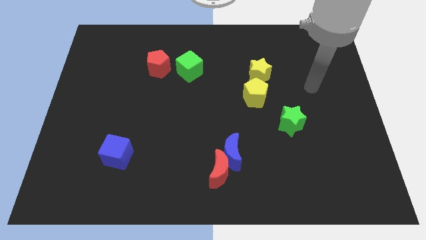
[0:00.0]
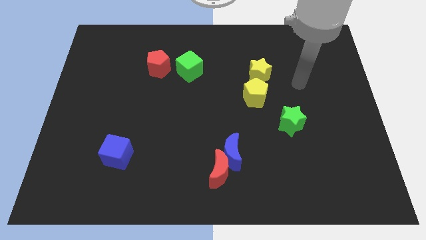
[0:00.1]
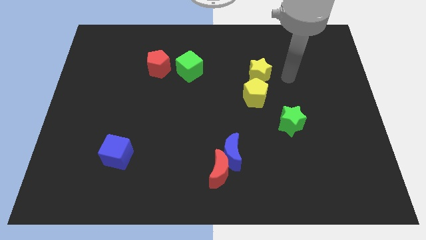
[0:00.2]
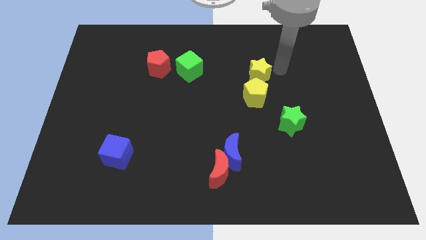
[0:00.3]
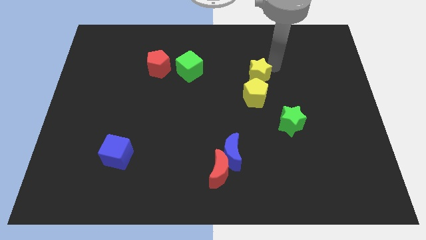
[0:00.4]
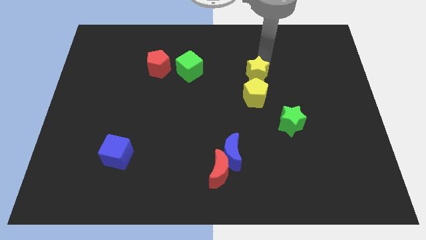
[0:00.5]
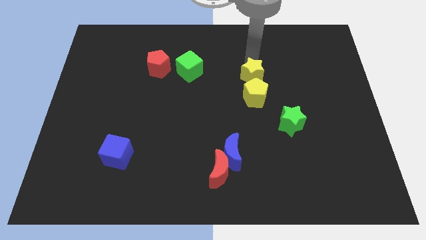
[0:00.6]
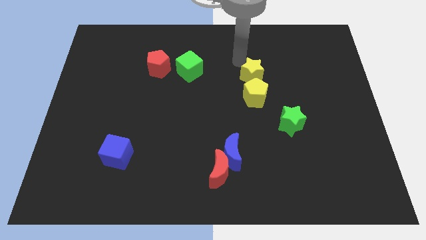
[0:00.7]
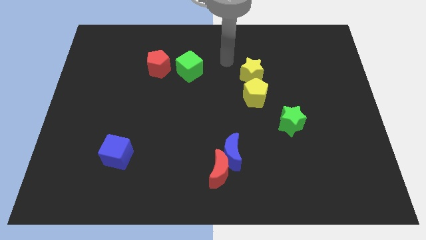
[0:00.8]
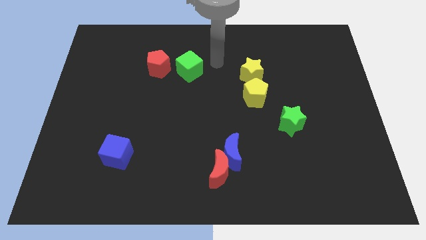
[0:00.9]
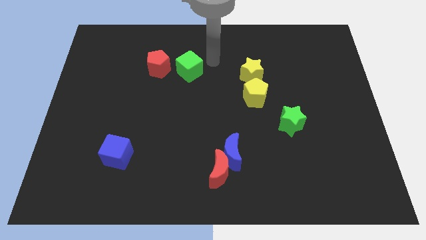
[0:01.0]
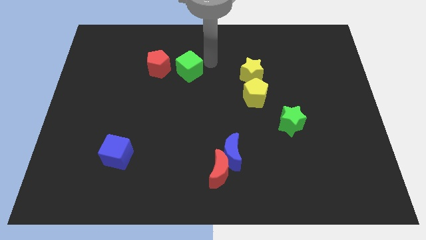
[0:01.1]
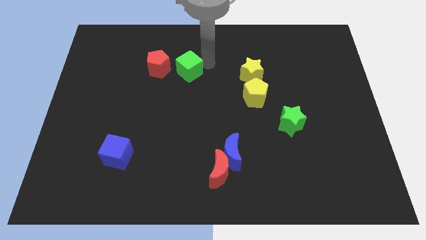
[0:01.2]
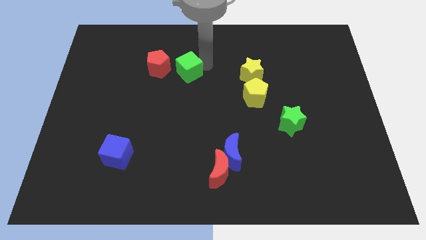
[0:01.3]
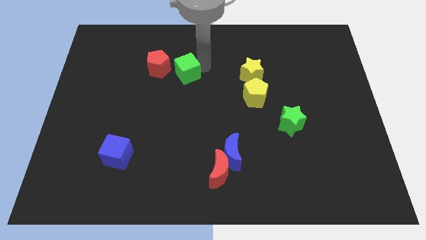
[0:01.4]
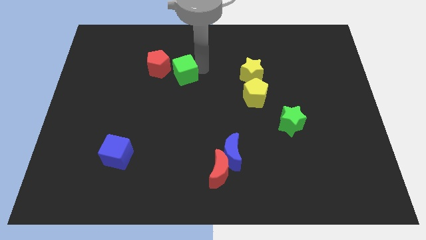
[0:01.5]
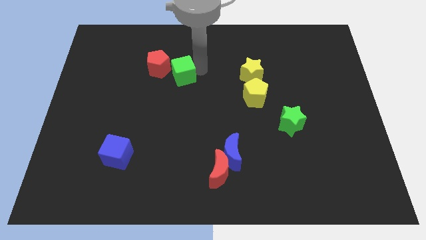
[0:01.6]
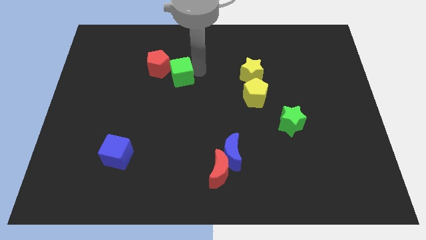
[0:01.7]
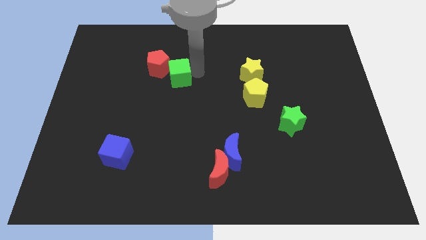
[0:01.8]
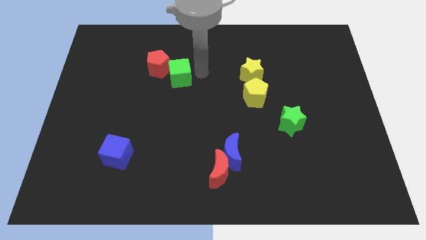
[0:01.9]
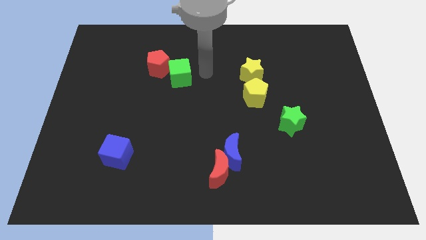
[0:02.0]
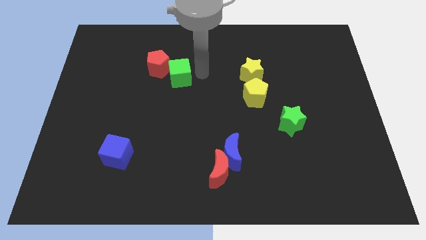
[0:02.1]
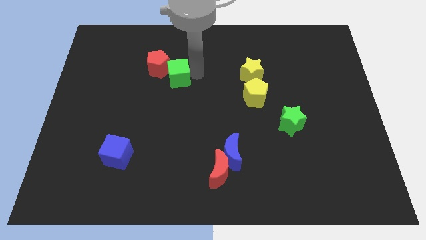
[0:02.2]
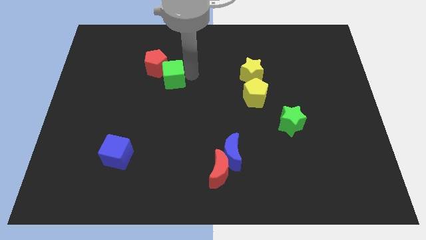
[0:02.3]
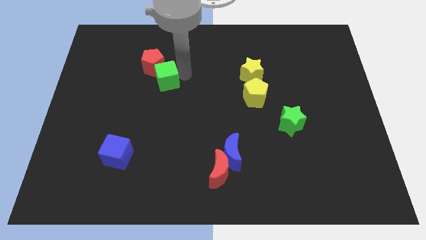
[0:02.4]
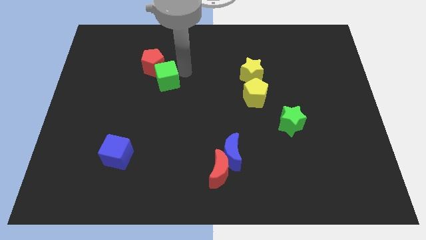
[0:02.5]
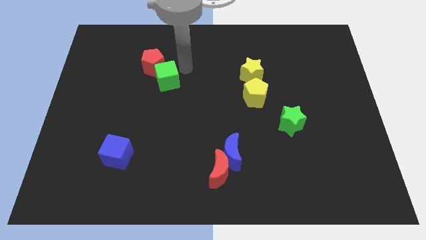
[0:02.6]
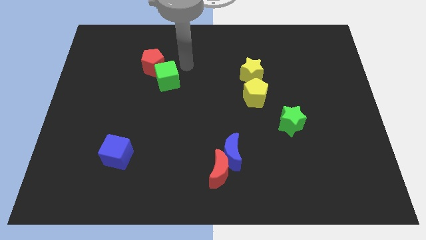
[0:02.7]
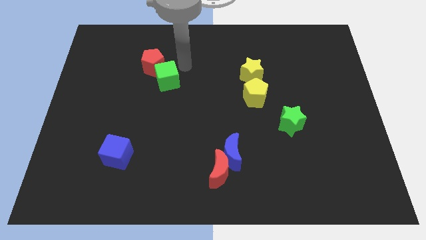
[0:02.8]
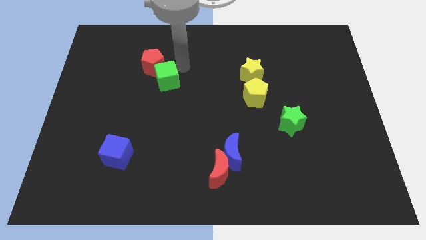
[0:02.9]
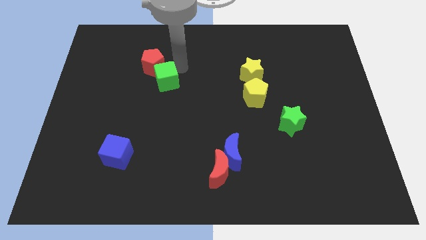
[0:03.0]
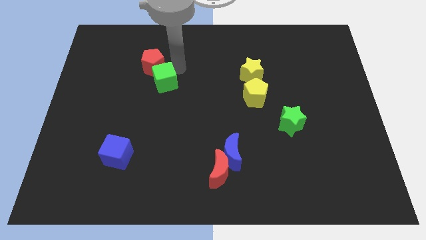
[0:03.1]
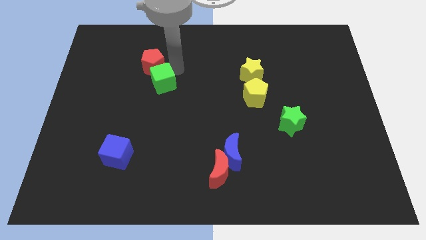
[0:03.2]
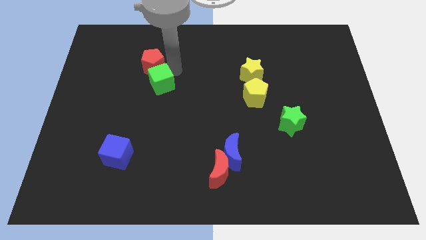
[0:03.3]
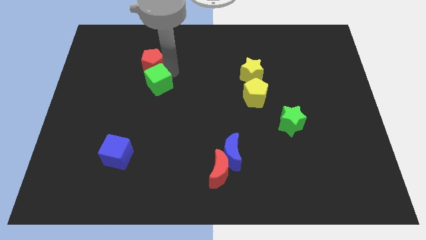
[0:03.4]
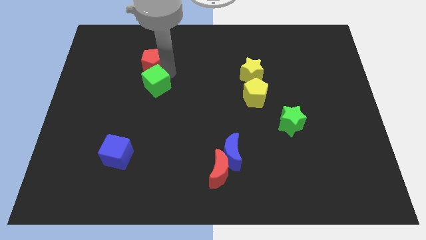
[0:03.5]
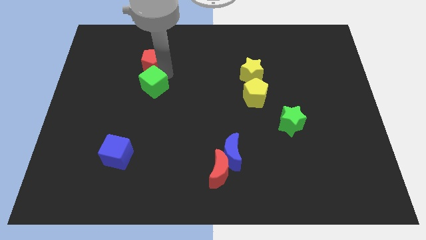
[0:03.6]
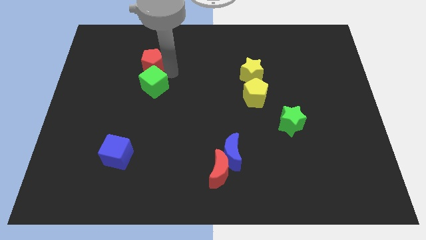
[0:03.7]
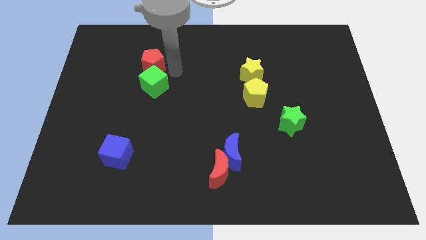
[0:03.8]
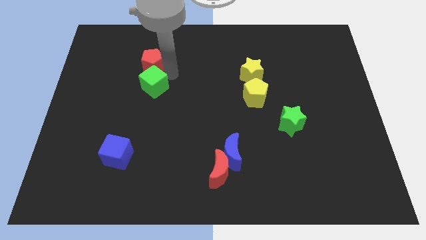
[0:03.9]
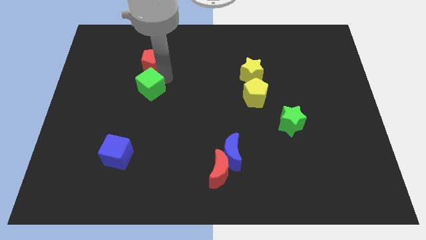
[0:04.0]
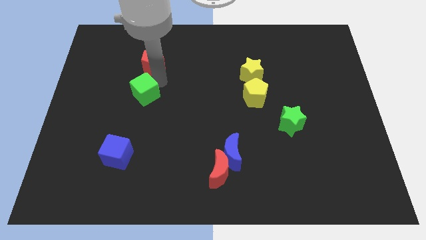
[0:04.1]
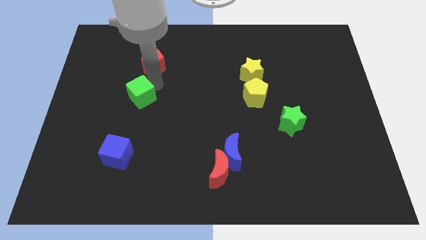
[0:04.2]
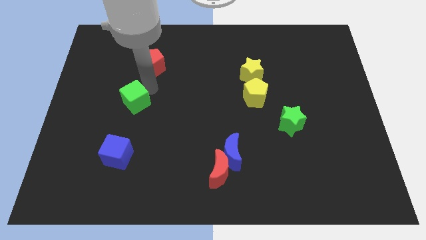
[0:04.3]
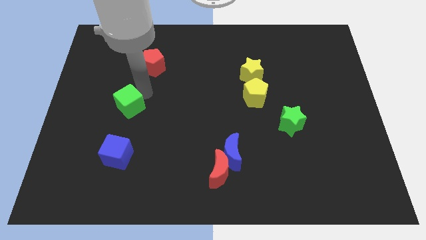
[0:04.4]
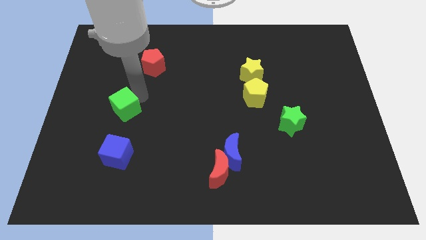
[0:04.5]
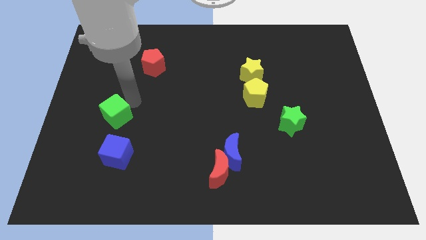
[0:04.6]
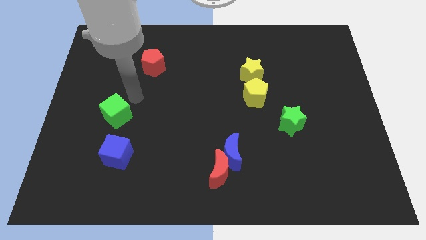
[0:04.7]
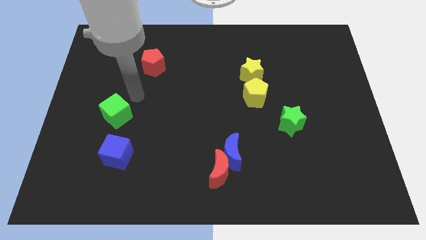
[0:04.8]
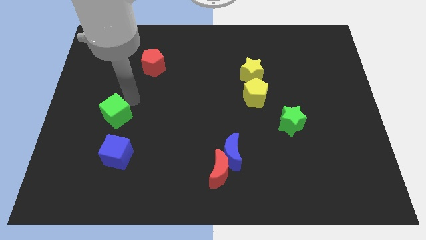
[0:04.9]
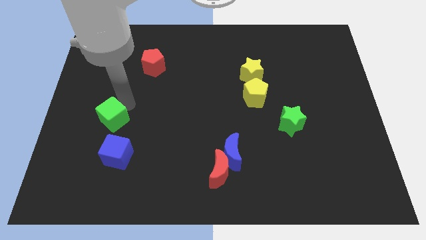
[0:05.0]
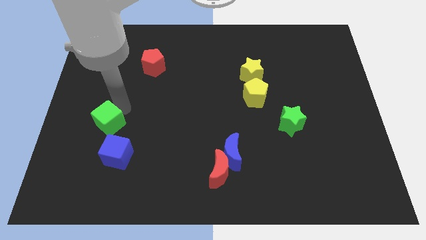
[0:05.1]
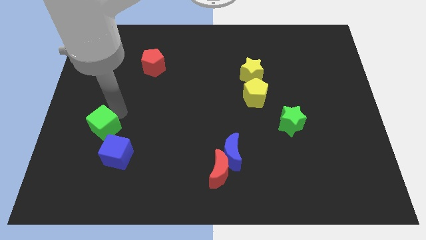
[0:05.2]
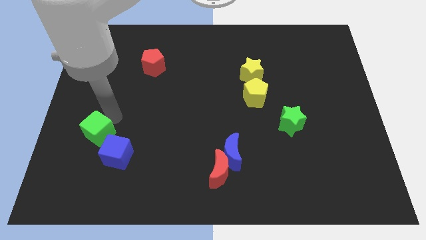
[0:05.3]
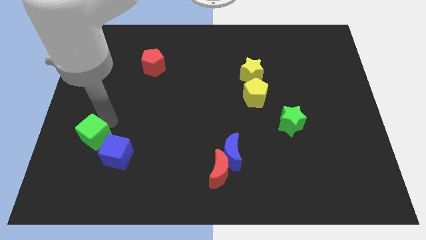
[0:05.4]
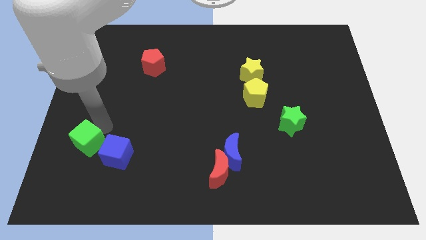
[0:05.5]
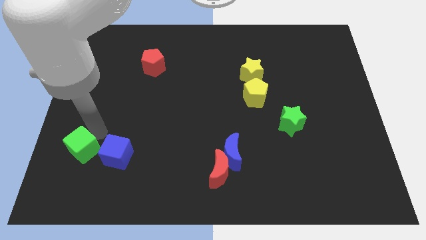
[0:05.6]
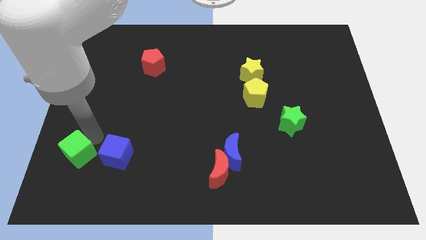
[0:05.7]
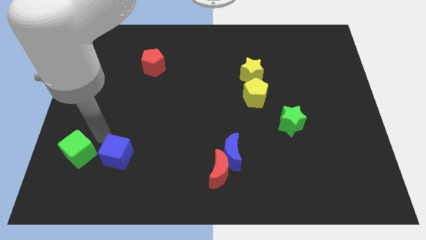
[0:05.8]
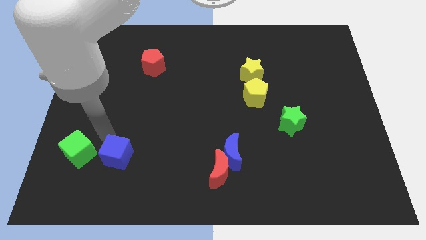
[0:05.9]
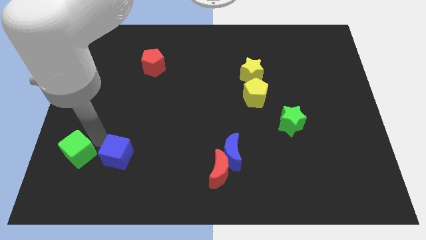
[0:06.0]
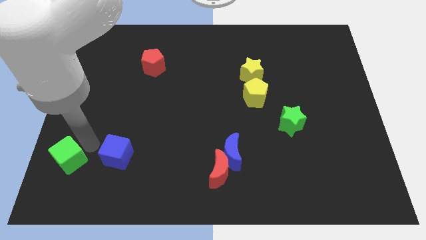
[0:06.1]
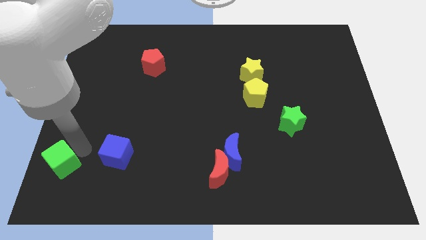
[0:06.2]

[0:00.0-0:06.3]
push the green cube to the bottom left corner

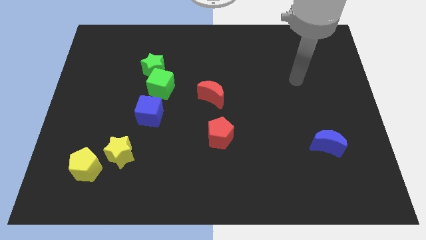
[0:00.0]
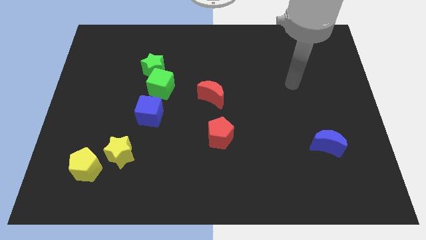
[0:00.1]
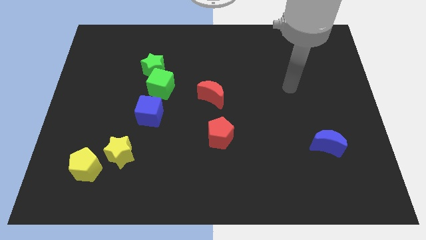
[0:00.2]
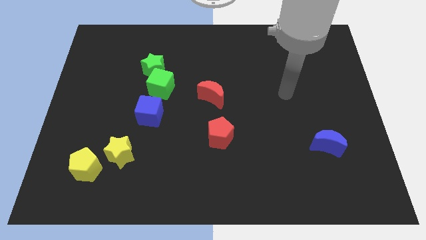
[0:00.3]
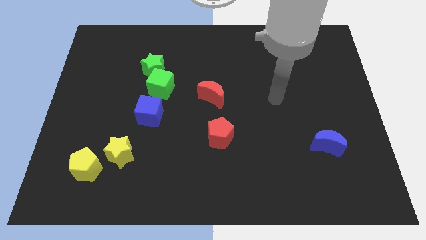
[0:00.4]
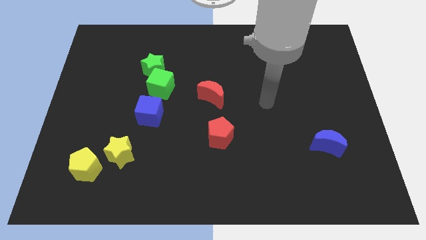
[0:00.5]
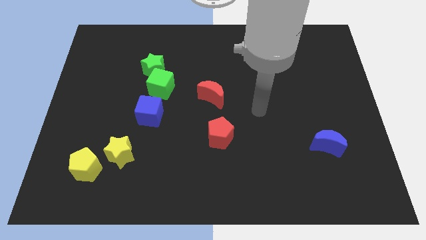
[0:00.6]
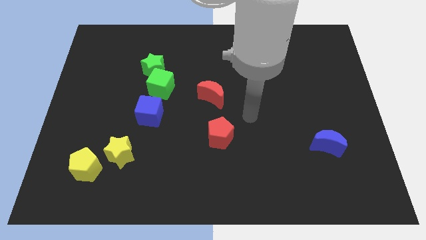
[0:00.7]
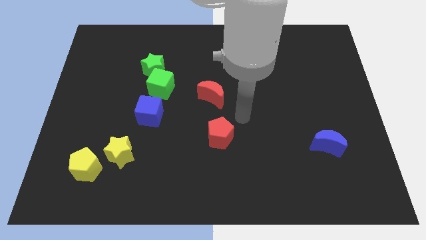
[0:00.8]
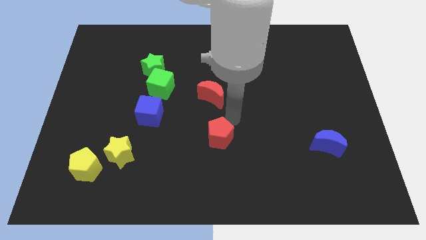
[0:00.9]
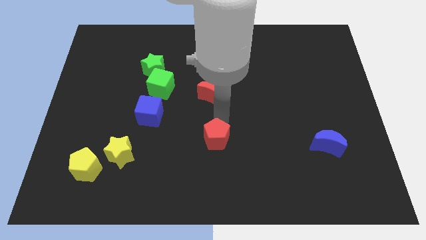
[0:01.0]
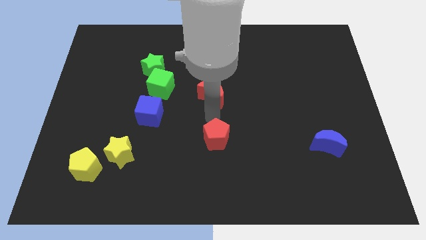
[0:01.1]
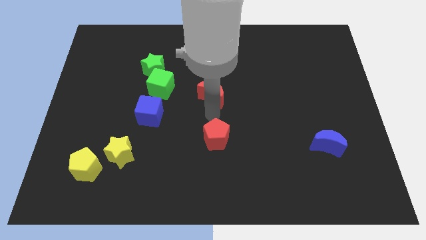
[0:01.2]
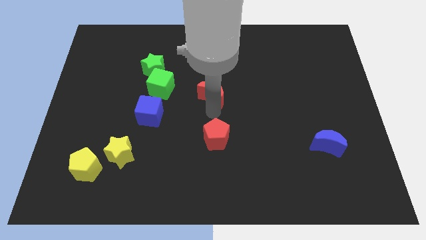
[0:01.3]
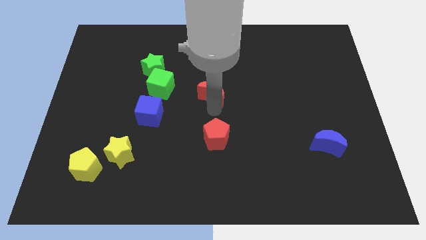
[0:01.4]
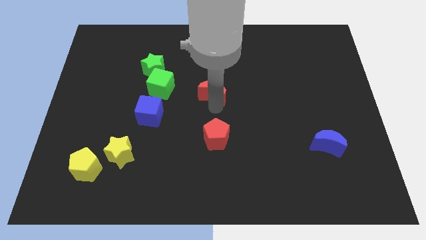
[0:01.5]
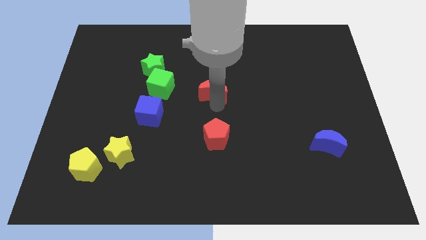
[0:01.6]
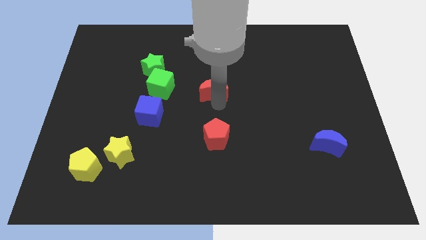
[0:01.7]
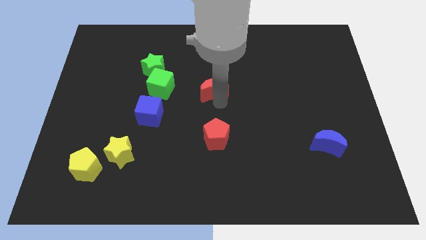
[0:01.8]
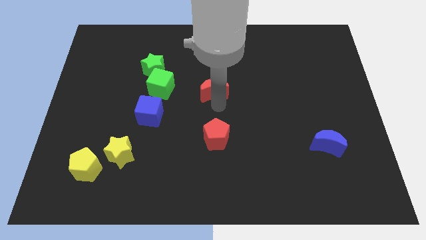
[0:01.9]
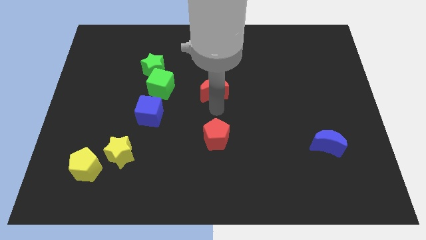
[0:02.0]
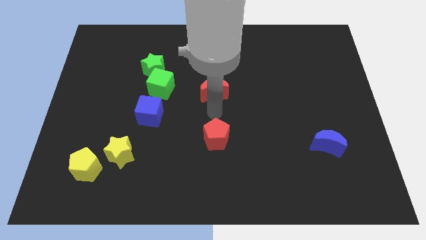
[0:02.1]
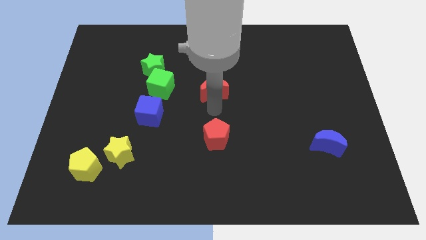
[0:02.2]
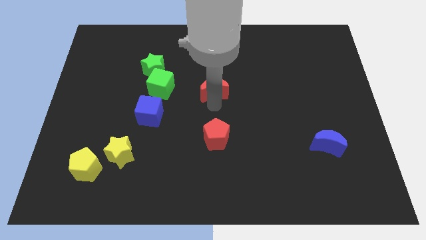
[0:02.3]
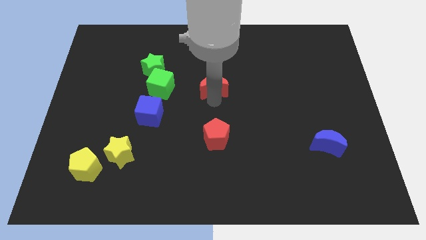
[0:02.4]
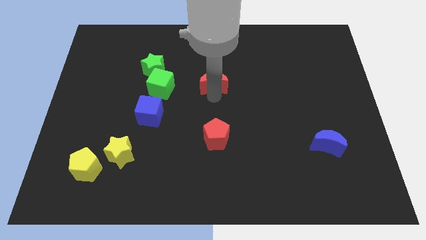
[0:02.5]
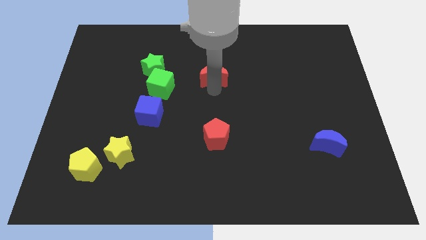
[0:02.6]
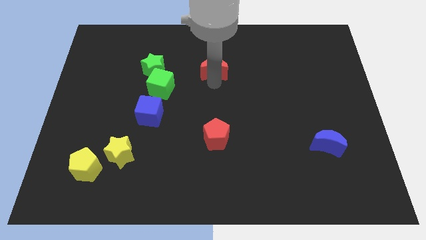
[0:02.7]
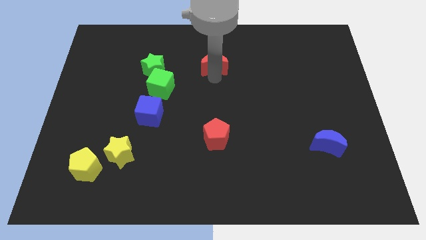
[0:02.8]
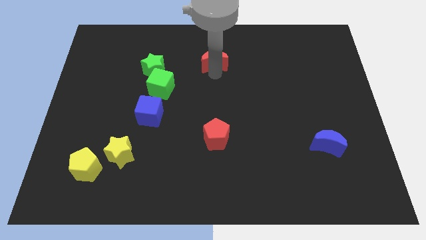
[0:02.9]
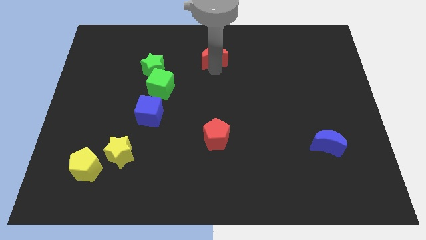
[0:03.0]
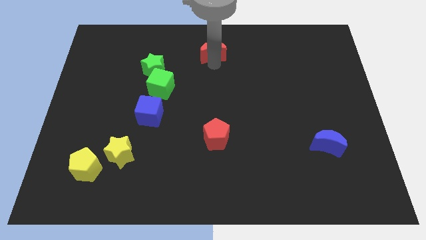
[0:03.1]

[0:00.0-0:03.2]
put the red moon to the top side
